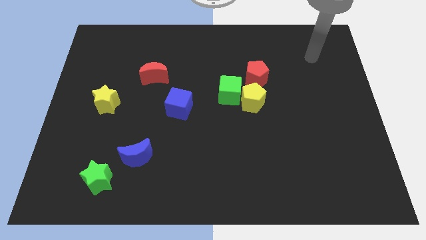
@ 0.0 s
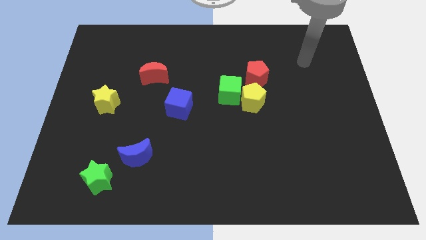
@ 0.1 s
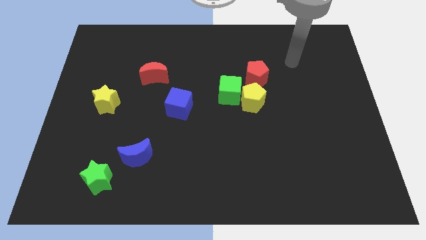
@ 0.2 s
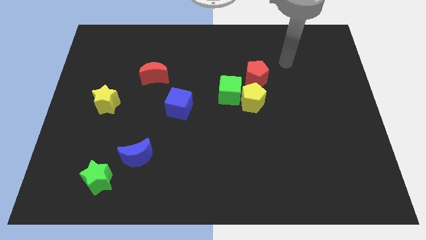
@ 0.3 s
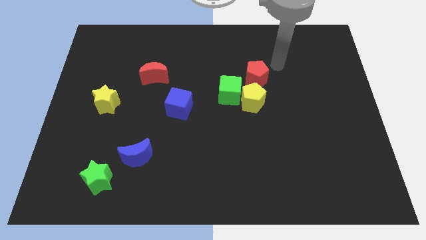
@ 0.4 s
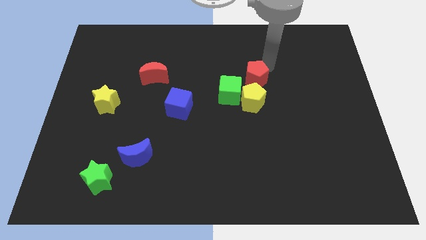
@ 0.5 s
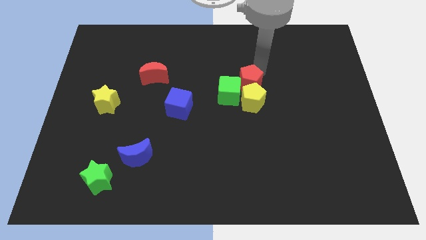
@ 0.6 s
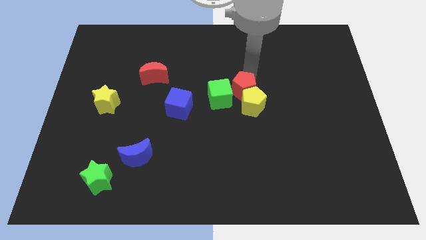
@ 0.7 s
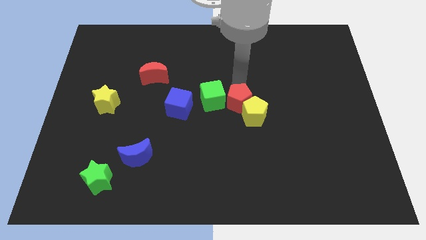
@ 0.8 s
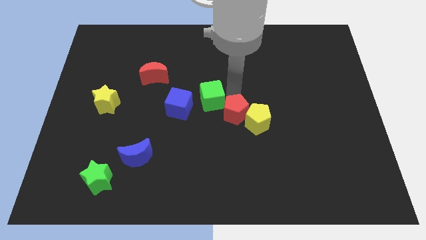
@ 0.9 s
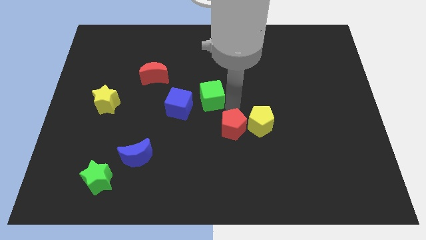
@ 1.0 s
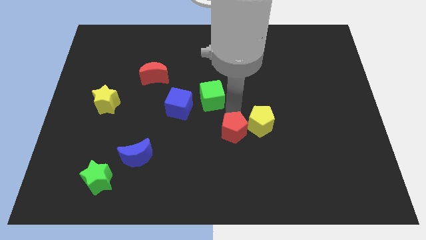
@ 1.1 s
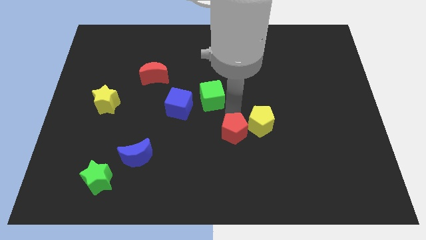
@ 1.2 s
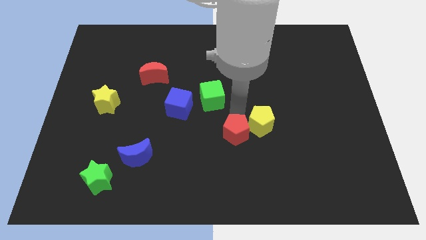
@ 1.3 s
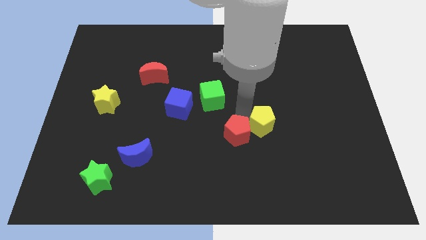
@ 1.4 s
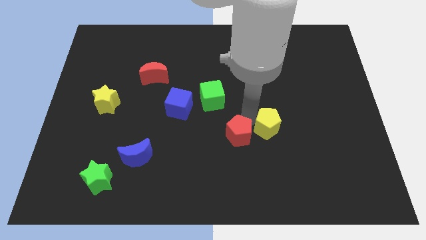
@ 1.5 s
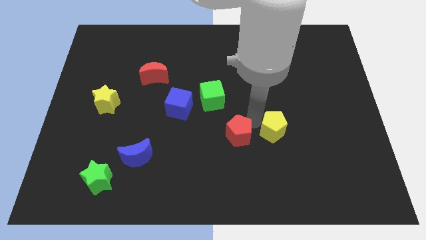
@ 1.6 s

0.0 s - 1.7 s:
move the yellow pentagon away from the green cube and red pentagon

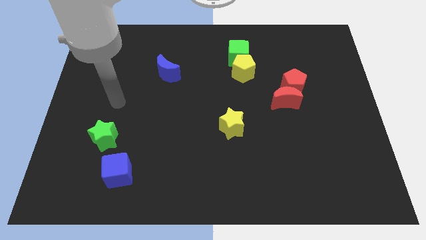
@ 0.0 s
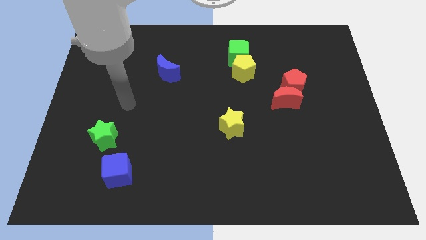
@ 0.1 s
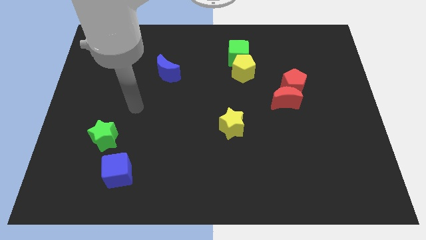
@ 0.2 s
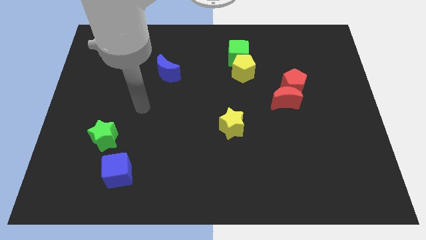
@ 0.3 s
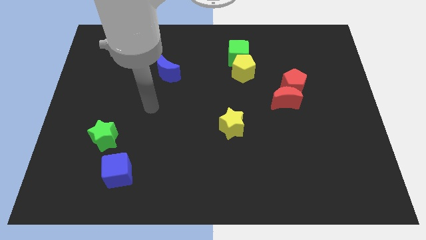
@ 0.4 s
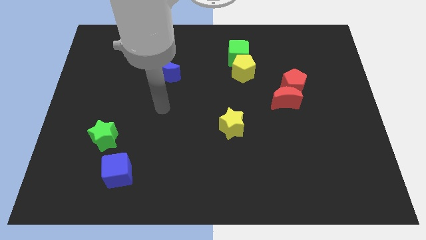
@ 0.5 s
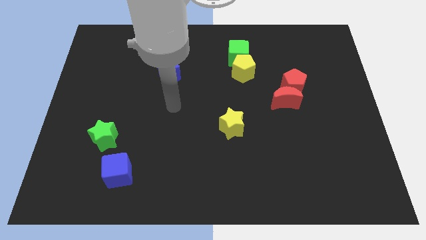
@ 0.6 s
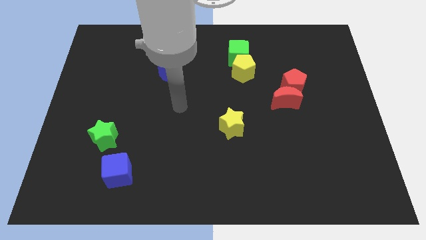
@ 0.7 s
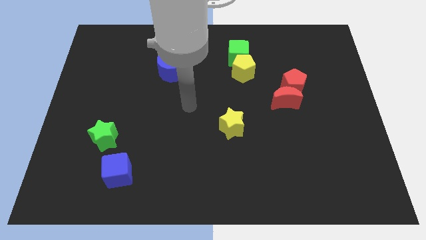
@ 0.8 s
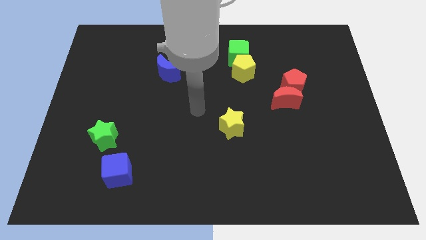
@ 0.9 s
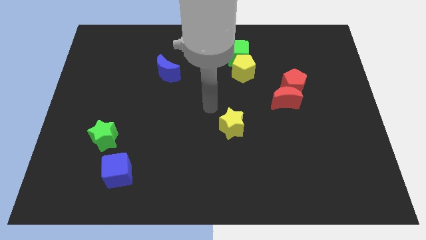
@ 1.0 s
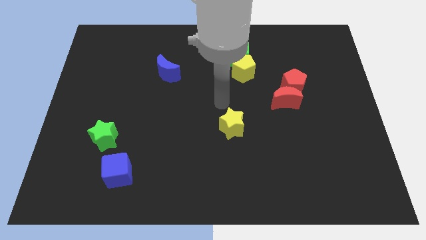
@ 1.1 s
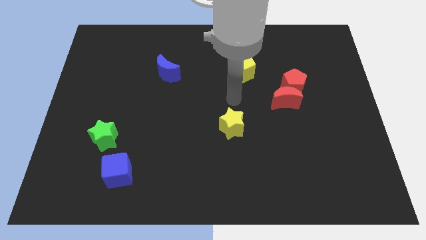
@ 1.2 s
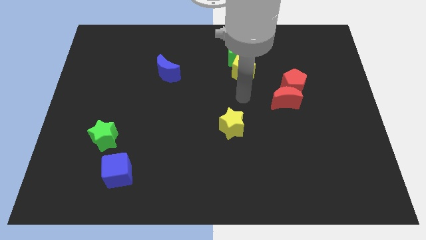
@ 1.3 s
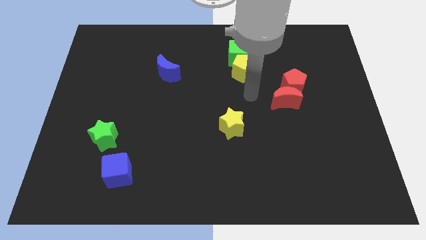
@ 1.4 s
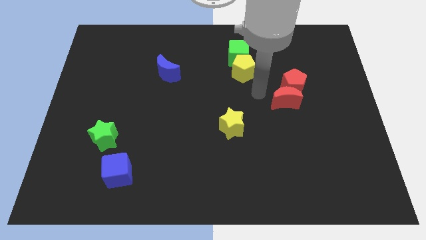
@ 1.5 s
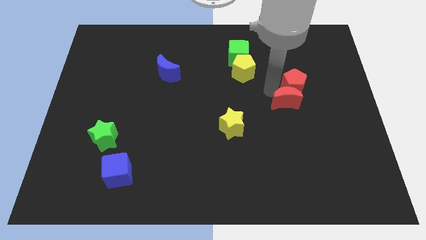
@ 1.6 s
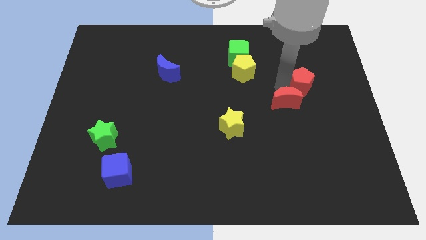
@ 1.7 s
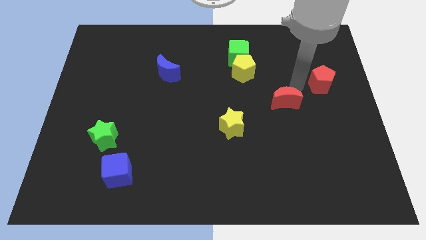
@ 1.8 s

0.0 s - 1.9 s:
move the red moon away from the red pentagon

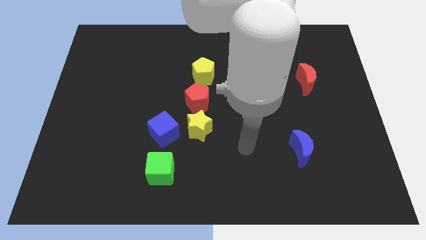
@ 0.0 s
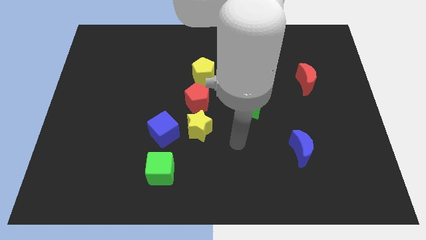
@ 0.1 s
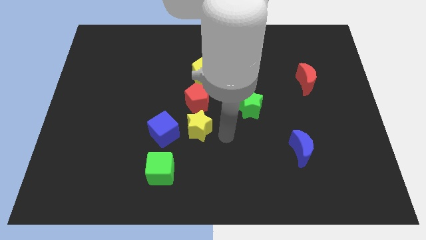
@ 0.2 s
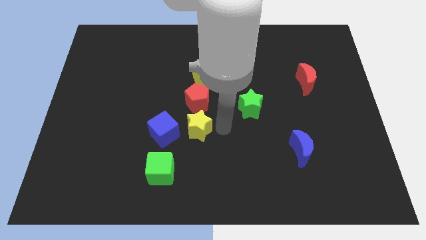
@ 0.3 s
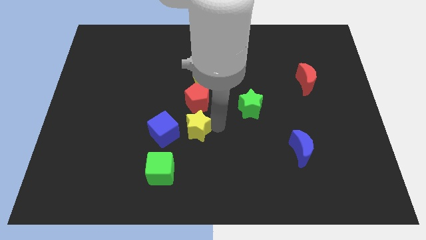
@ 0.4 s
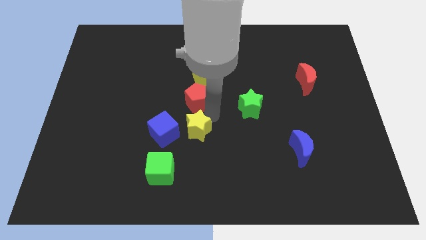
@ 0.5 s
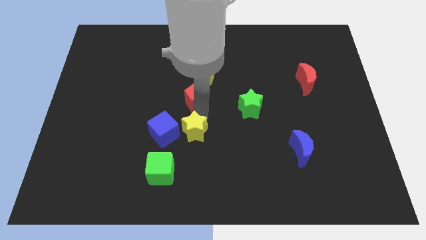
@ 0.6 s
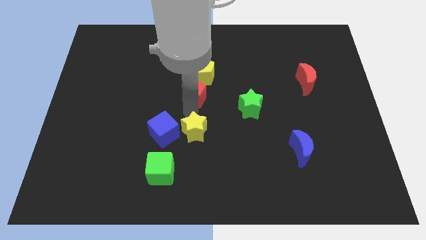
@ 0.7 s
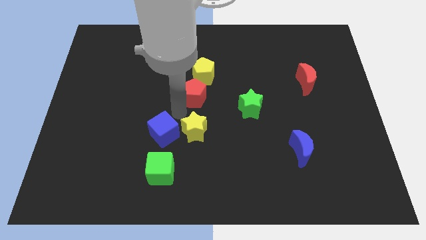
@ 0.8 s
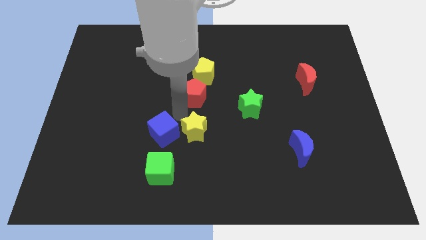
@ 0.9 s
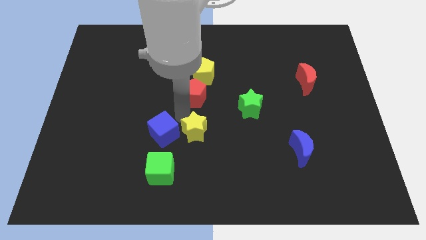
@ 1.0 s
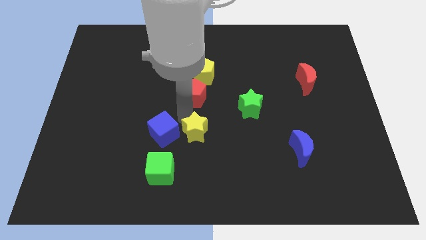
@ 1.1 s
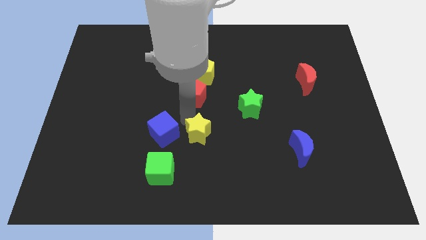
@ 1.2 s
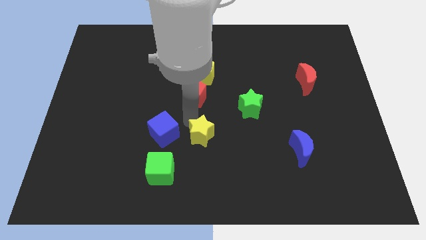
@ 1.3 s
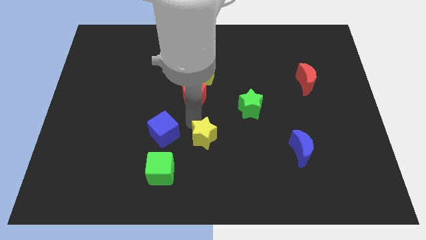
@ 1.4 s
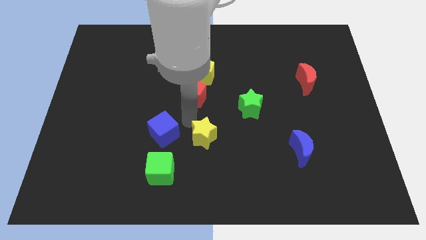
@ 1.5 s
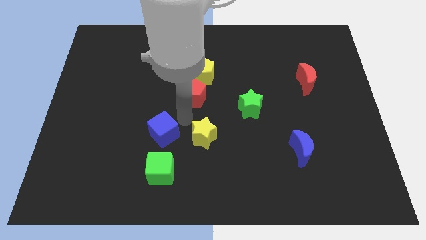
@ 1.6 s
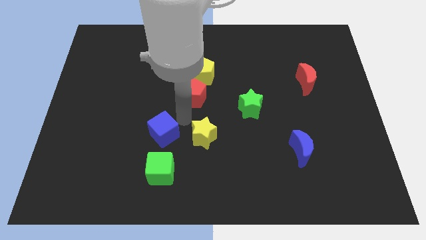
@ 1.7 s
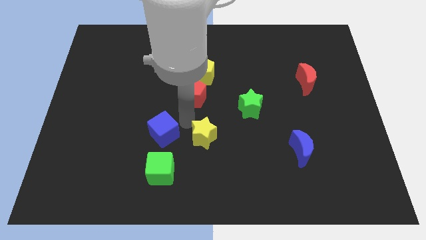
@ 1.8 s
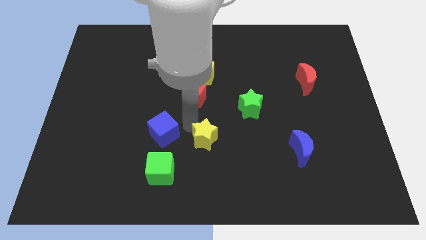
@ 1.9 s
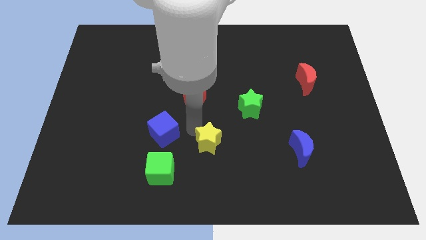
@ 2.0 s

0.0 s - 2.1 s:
pull the yellow star apart from the blue cube and red pentagon

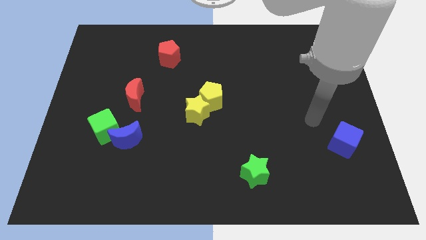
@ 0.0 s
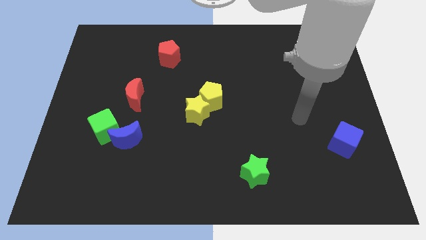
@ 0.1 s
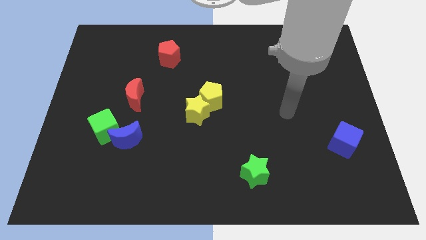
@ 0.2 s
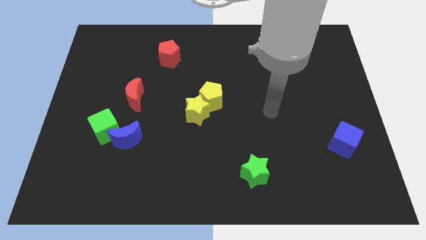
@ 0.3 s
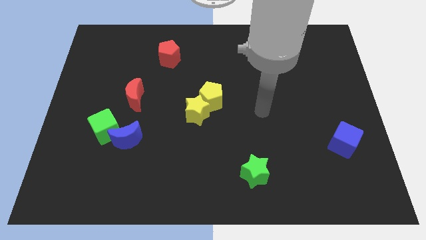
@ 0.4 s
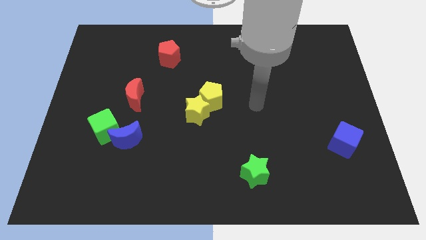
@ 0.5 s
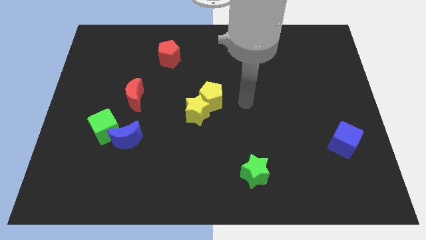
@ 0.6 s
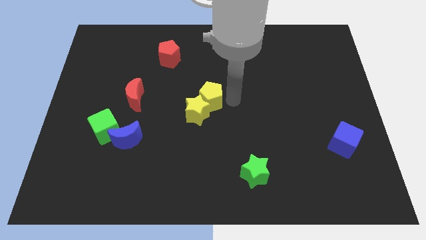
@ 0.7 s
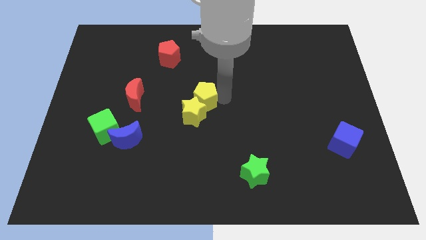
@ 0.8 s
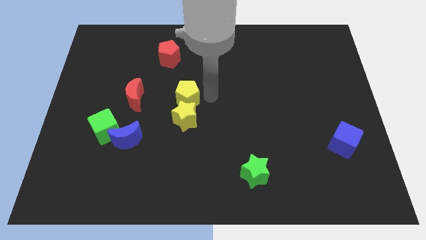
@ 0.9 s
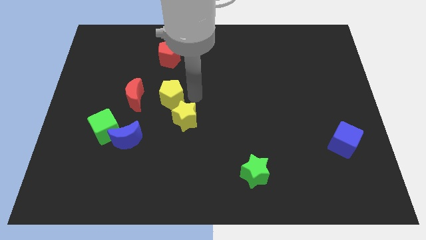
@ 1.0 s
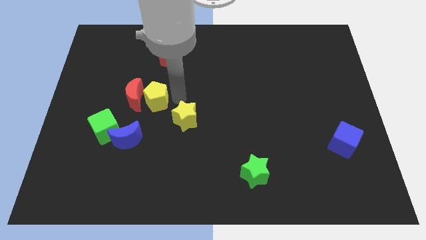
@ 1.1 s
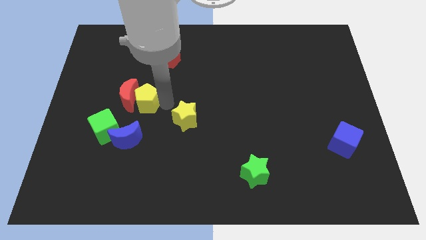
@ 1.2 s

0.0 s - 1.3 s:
separate the yellow star from the yellow pentagon

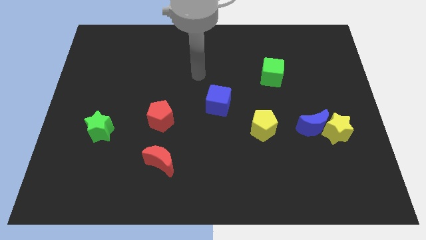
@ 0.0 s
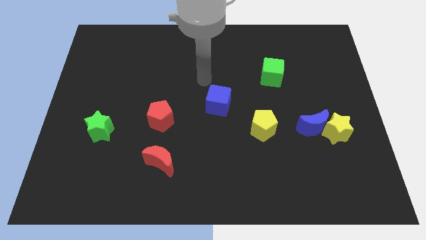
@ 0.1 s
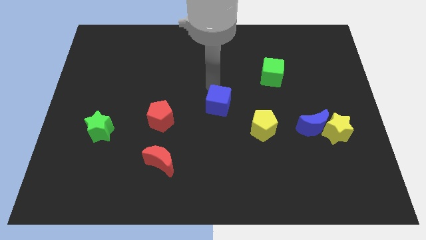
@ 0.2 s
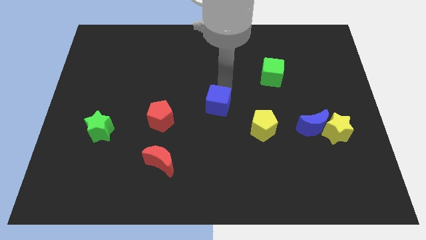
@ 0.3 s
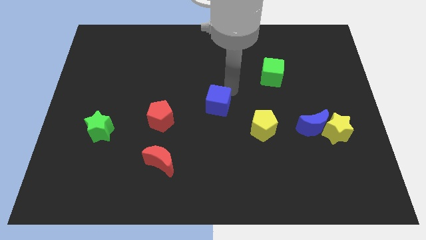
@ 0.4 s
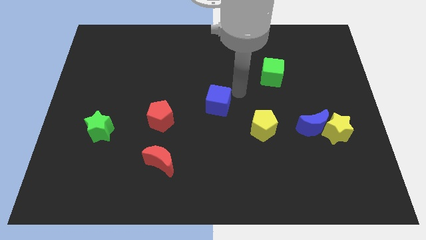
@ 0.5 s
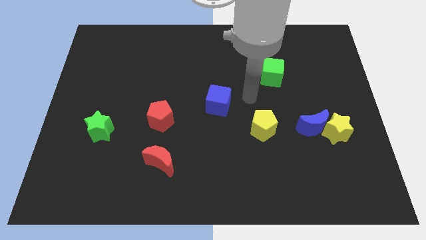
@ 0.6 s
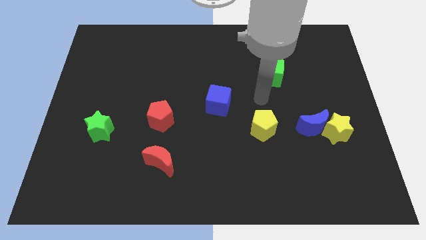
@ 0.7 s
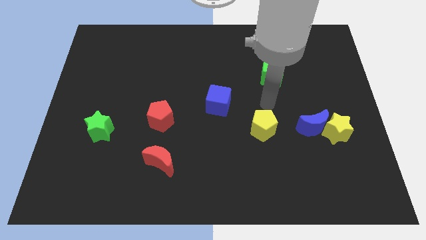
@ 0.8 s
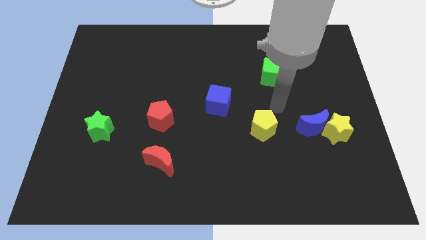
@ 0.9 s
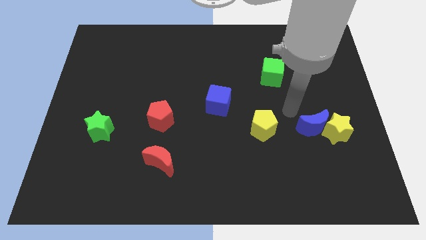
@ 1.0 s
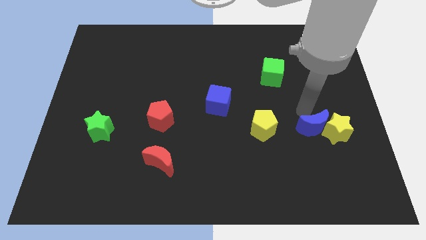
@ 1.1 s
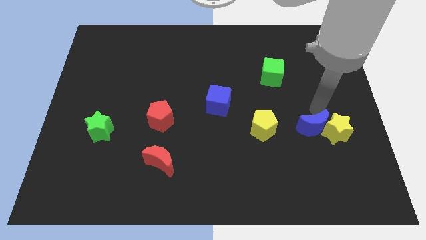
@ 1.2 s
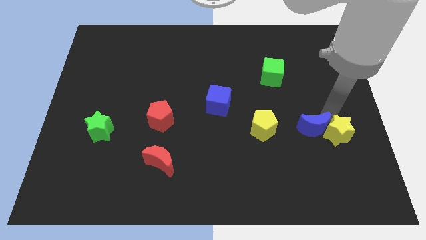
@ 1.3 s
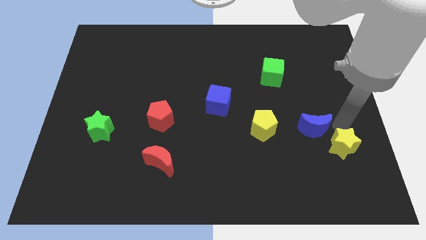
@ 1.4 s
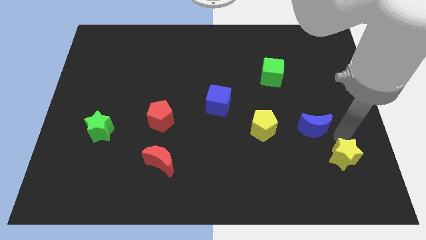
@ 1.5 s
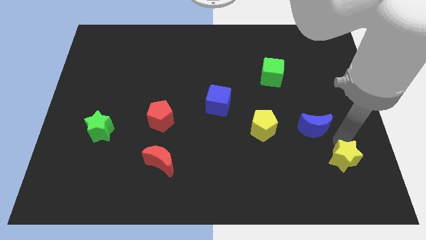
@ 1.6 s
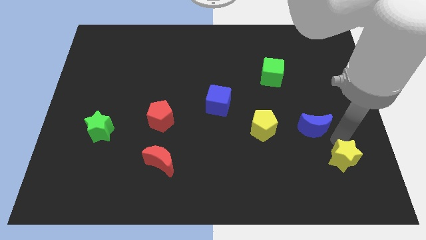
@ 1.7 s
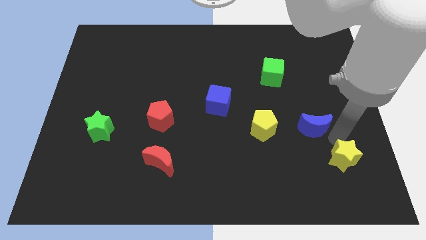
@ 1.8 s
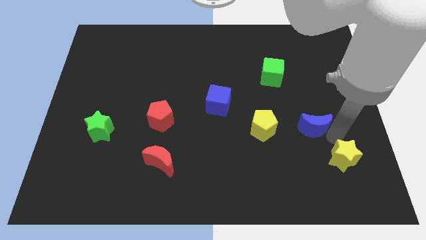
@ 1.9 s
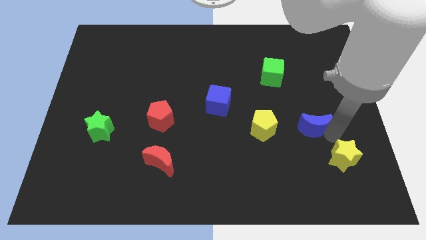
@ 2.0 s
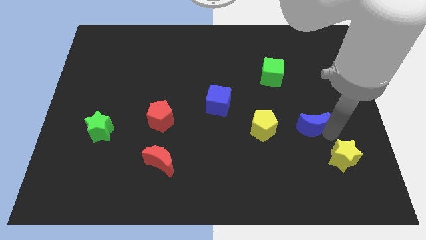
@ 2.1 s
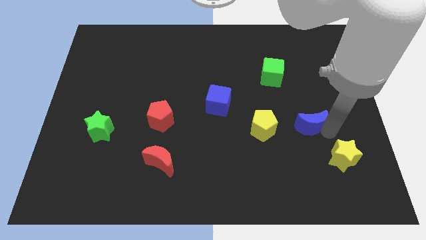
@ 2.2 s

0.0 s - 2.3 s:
pull the blue moon apart from the yellow star
